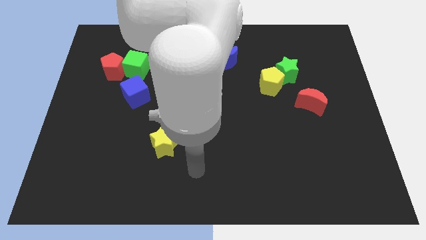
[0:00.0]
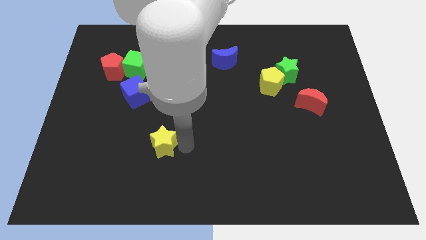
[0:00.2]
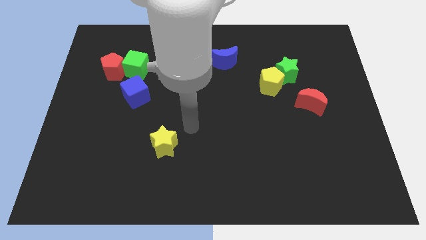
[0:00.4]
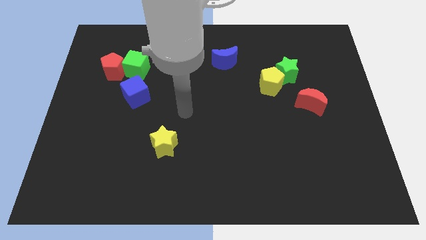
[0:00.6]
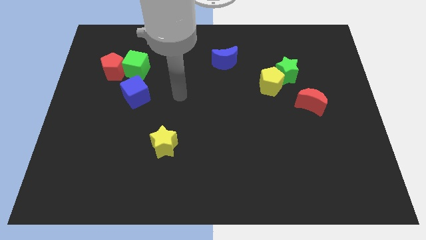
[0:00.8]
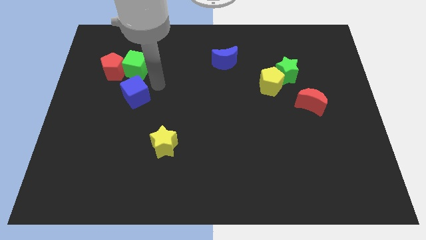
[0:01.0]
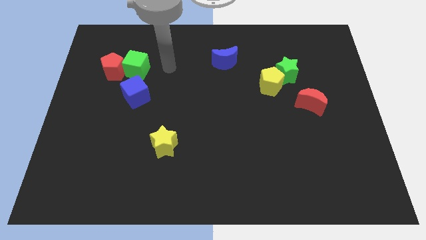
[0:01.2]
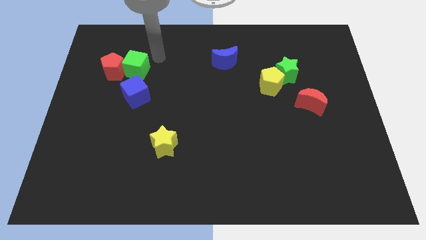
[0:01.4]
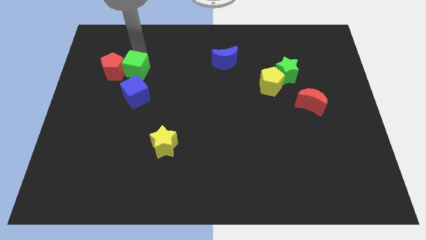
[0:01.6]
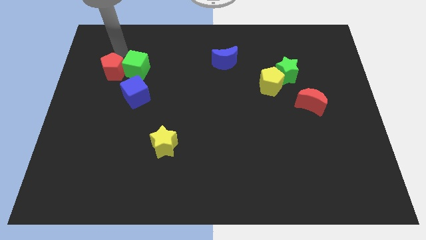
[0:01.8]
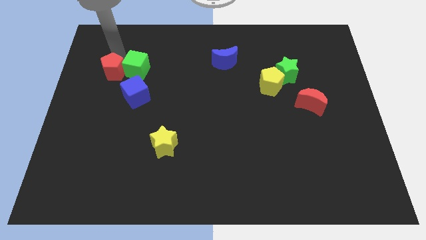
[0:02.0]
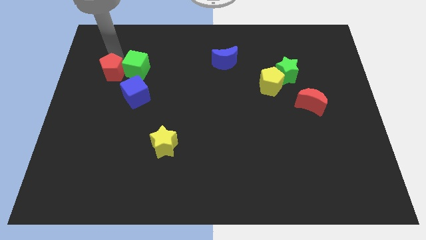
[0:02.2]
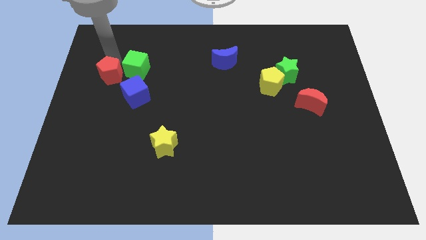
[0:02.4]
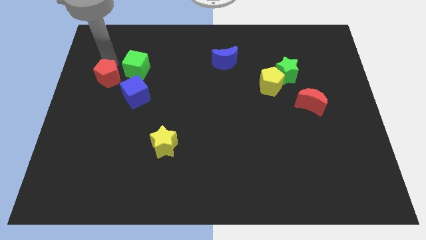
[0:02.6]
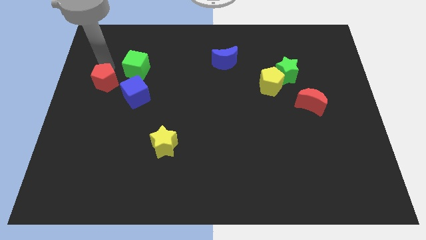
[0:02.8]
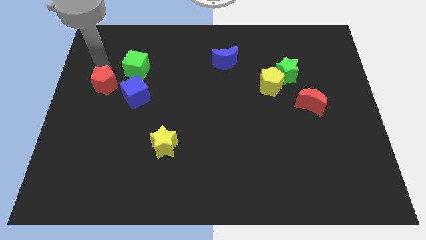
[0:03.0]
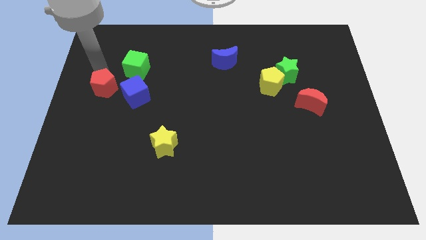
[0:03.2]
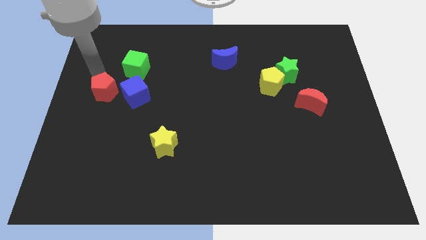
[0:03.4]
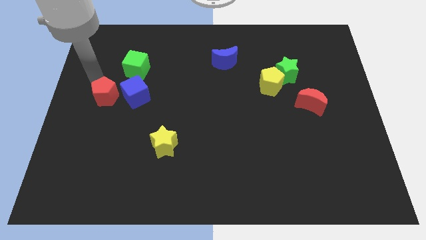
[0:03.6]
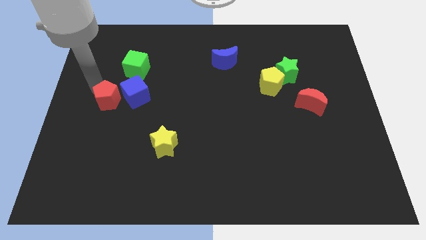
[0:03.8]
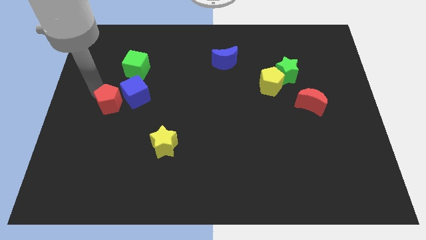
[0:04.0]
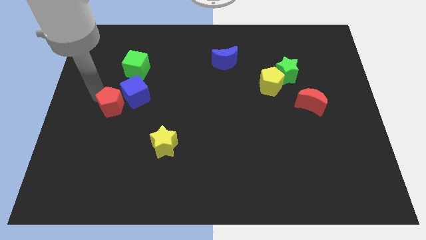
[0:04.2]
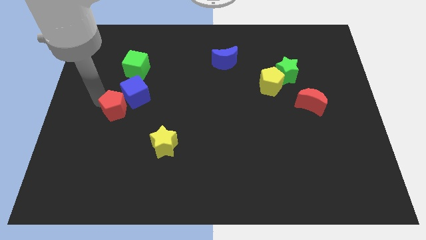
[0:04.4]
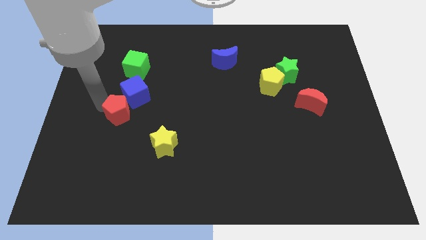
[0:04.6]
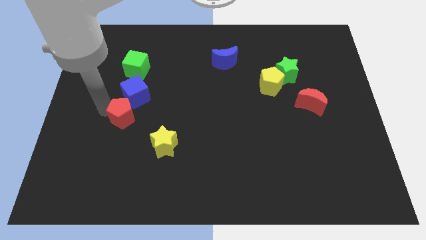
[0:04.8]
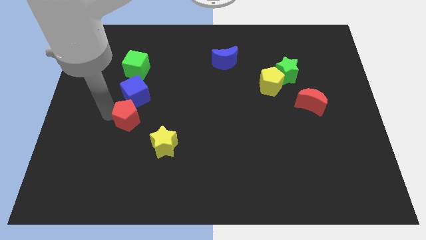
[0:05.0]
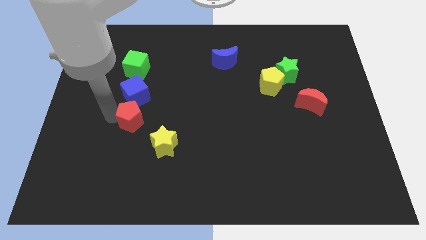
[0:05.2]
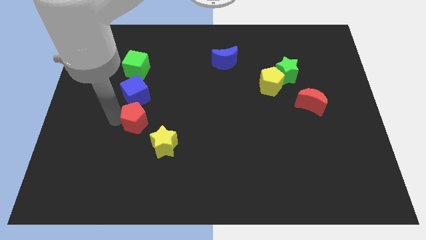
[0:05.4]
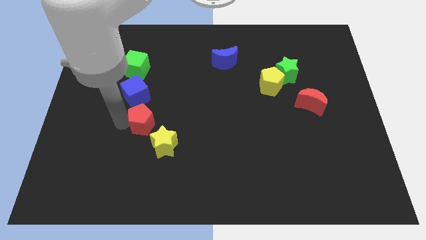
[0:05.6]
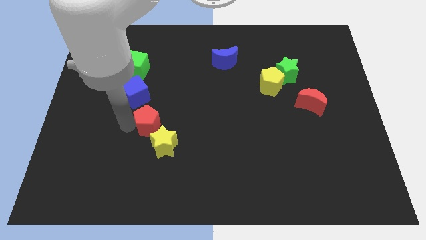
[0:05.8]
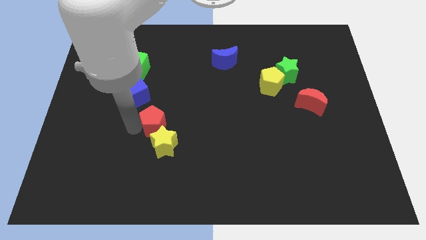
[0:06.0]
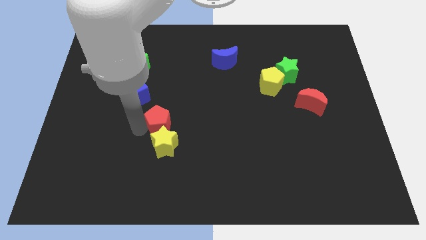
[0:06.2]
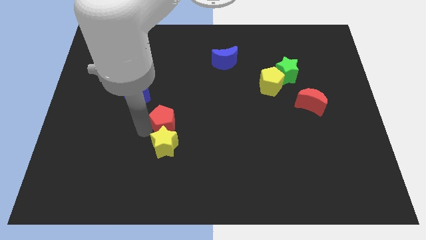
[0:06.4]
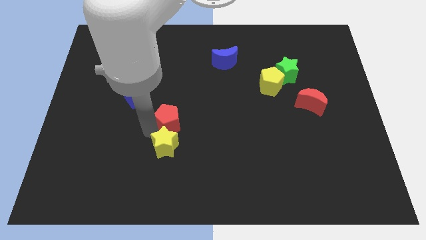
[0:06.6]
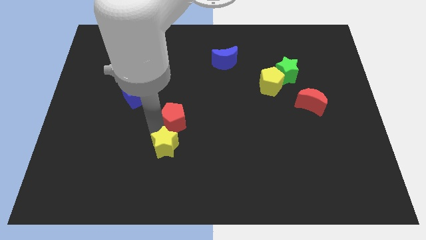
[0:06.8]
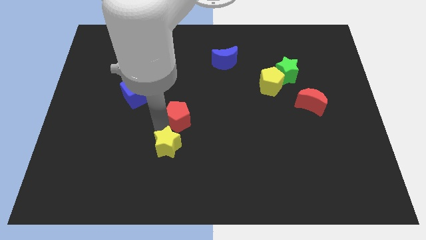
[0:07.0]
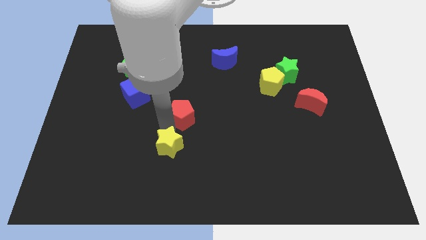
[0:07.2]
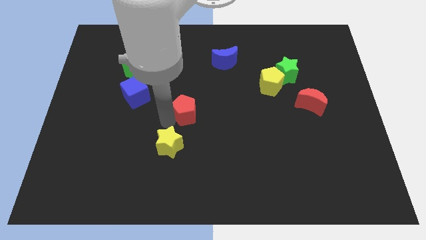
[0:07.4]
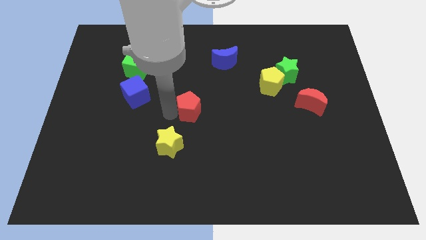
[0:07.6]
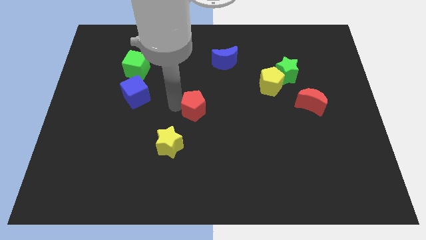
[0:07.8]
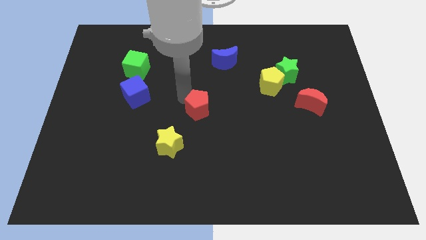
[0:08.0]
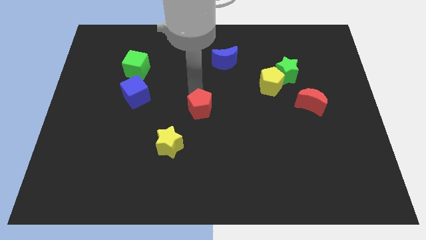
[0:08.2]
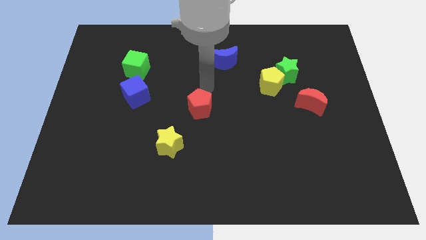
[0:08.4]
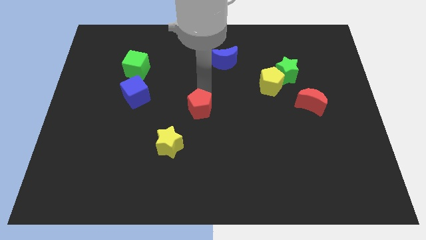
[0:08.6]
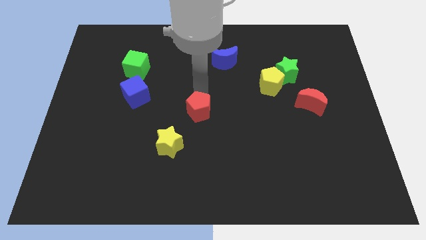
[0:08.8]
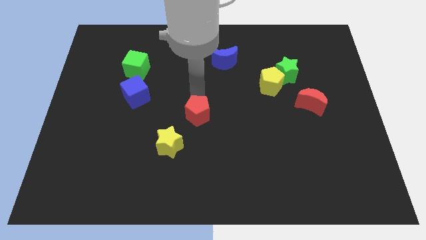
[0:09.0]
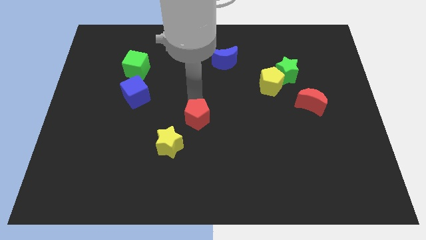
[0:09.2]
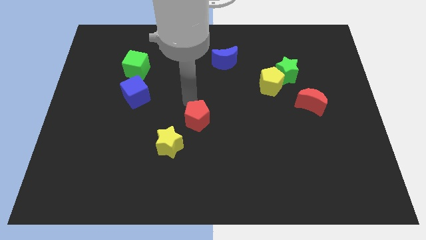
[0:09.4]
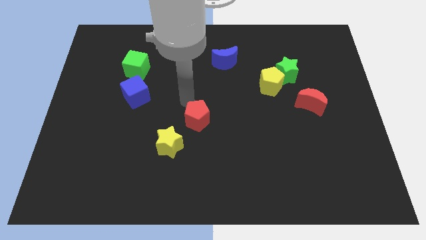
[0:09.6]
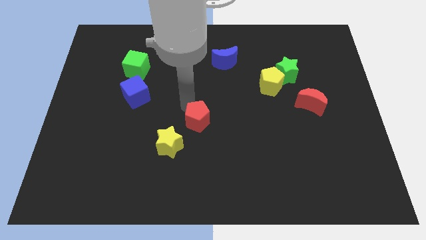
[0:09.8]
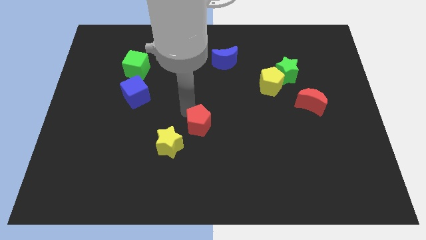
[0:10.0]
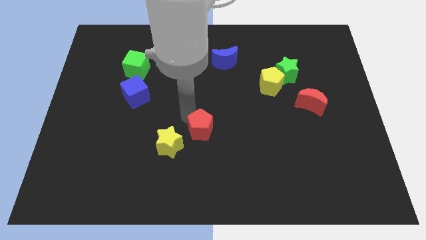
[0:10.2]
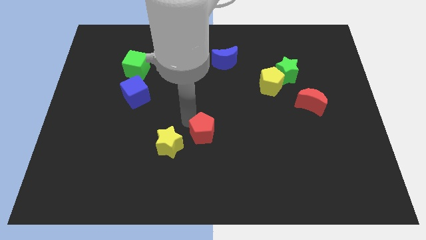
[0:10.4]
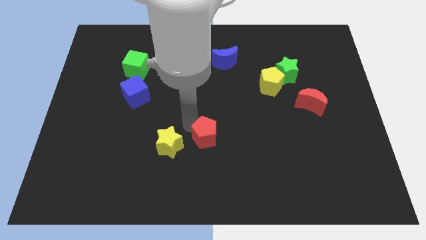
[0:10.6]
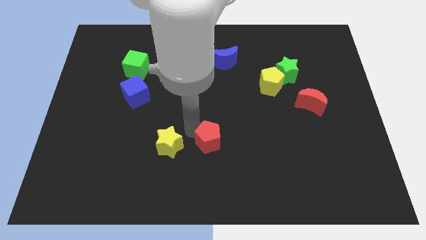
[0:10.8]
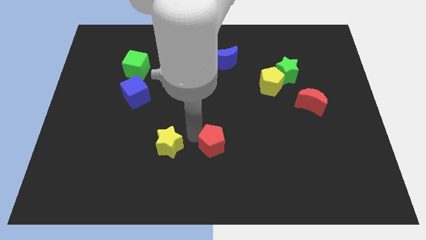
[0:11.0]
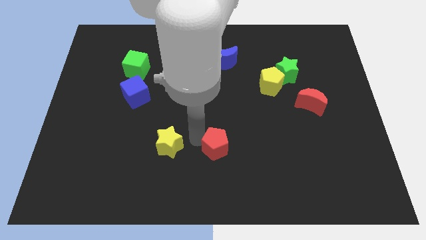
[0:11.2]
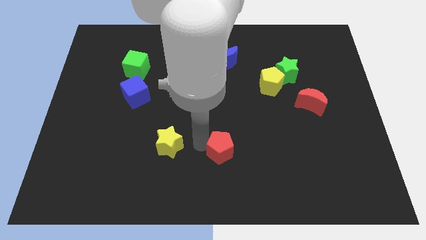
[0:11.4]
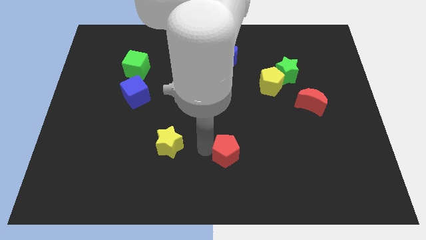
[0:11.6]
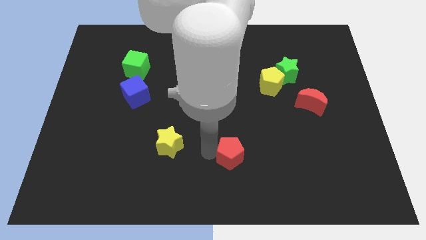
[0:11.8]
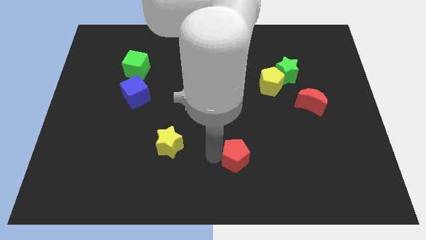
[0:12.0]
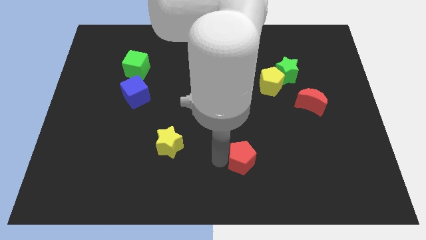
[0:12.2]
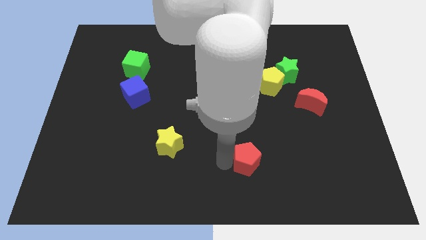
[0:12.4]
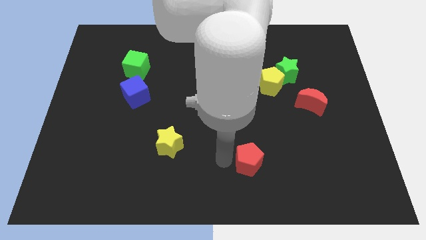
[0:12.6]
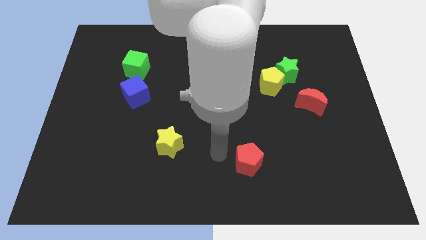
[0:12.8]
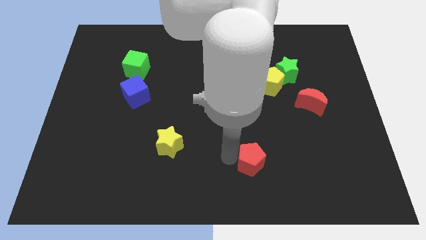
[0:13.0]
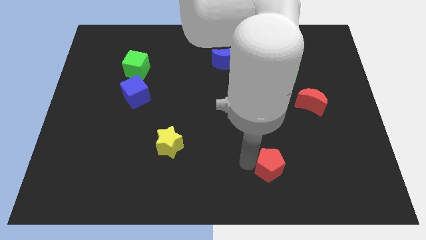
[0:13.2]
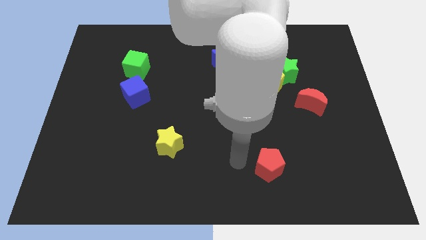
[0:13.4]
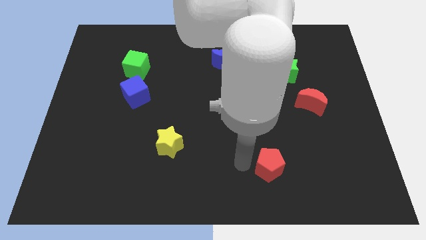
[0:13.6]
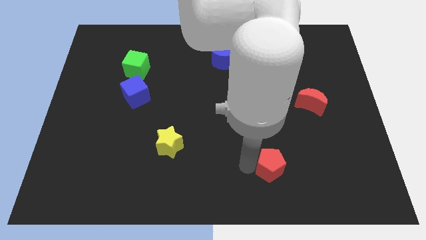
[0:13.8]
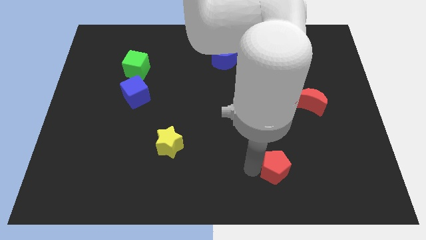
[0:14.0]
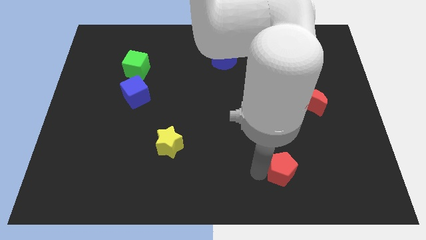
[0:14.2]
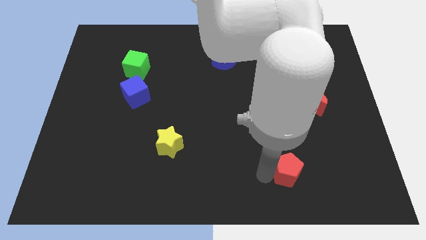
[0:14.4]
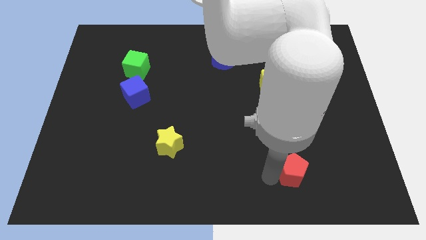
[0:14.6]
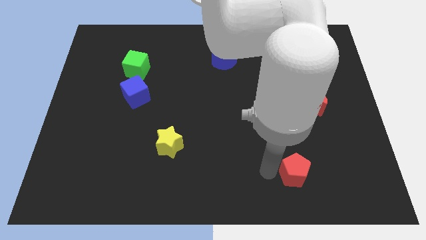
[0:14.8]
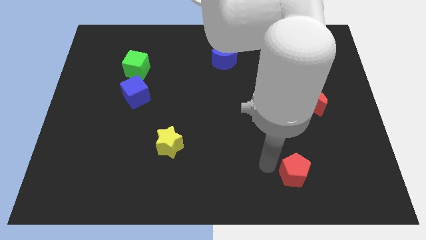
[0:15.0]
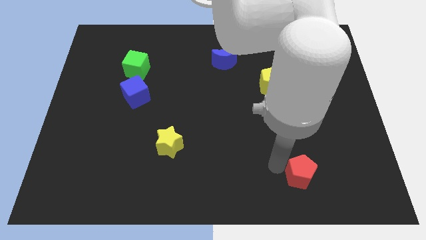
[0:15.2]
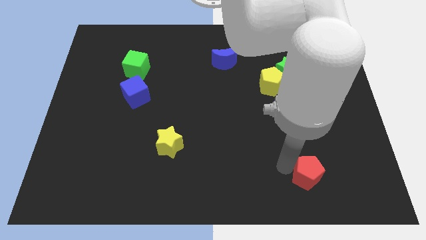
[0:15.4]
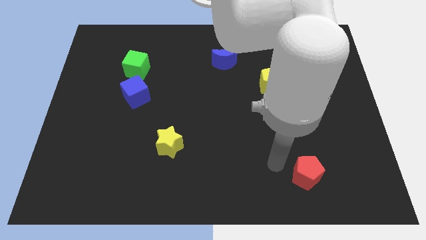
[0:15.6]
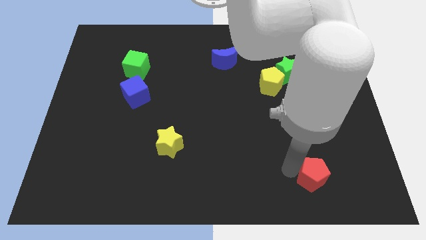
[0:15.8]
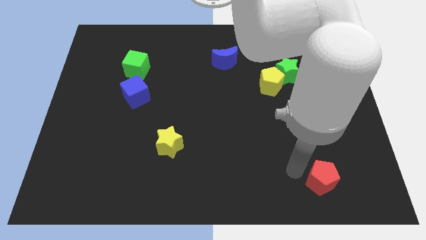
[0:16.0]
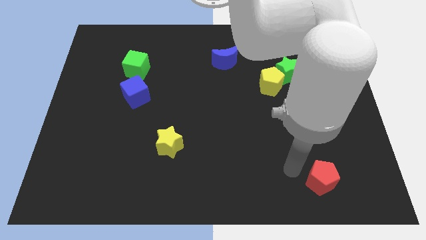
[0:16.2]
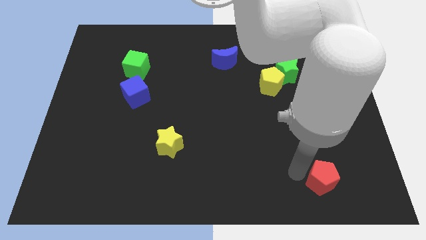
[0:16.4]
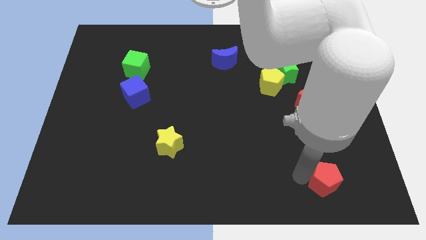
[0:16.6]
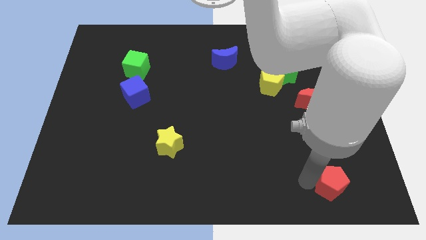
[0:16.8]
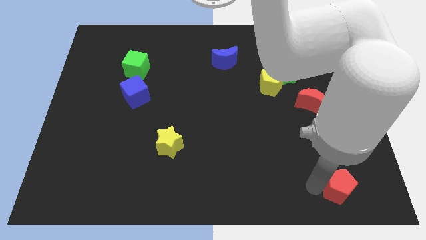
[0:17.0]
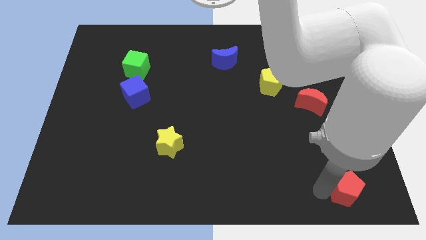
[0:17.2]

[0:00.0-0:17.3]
move the red pentagon to the bottom right corner
